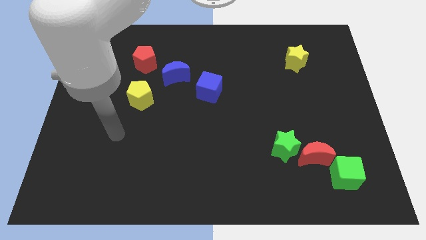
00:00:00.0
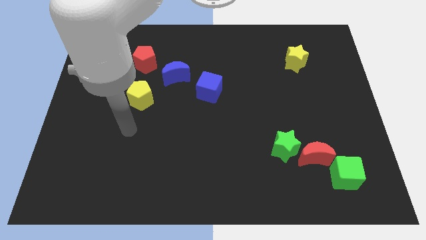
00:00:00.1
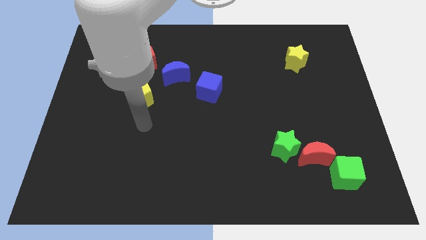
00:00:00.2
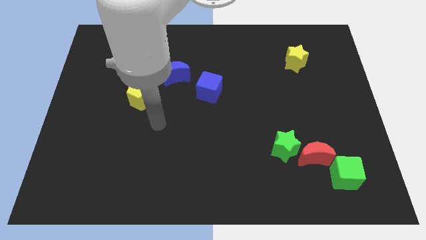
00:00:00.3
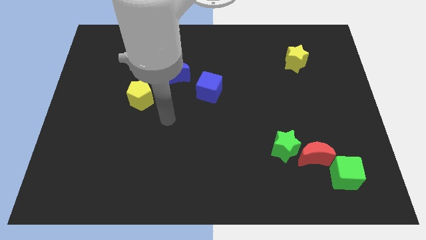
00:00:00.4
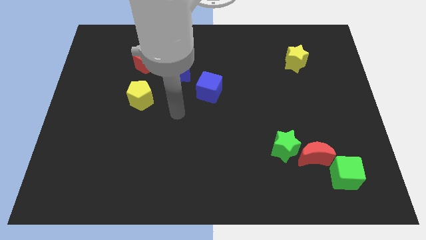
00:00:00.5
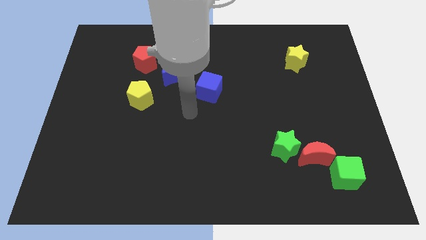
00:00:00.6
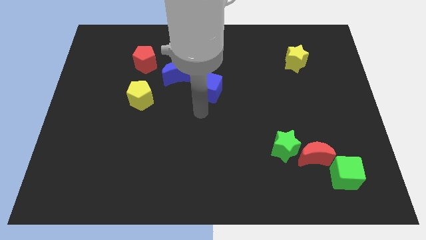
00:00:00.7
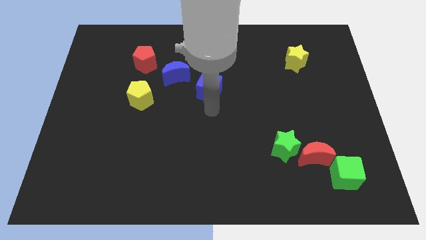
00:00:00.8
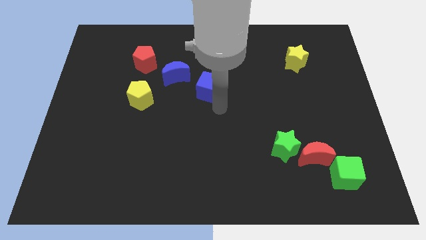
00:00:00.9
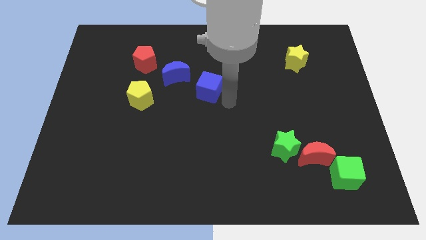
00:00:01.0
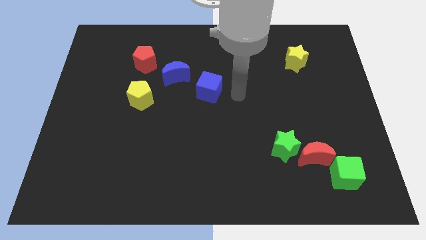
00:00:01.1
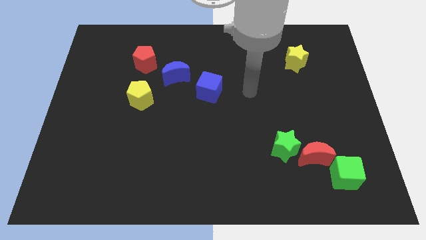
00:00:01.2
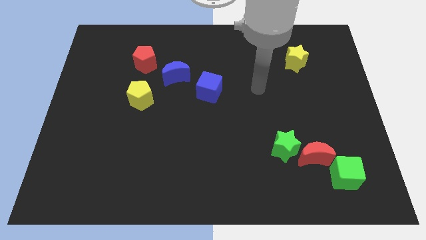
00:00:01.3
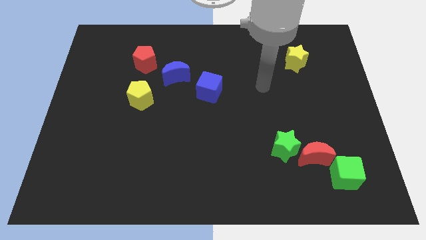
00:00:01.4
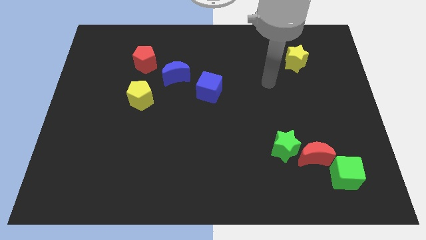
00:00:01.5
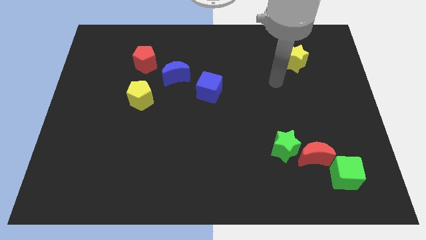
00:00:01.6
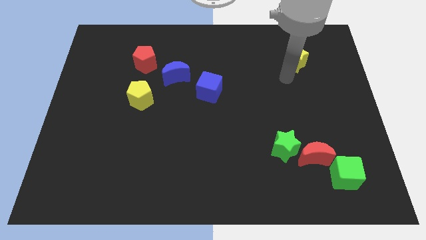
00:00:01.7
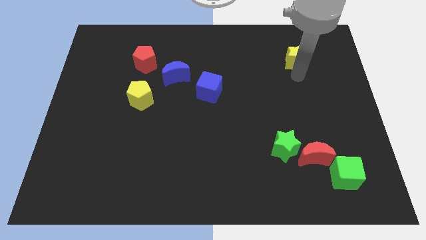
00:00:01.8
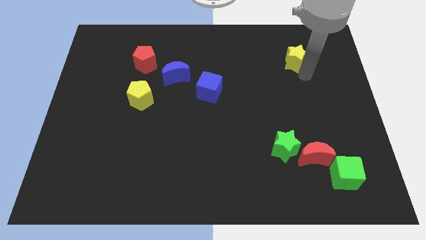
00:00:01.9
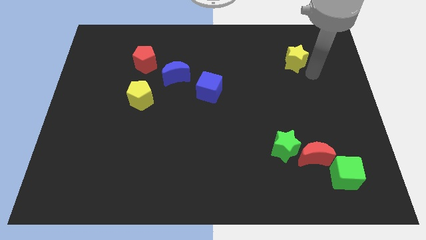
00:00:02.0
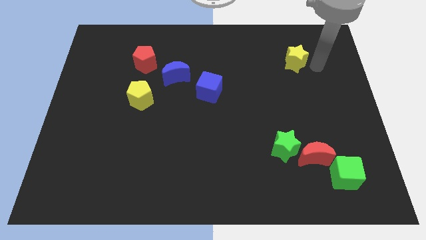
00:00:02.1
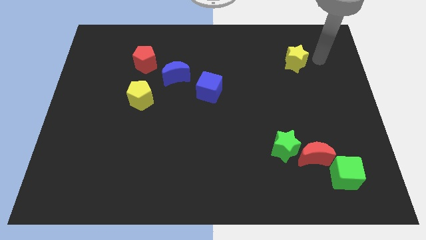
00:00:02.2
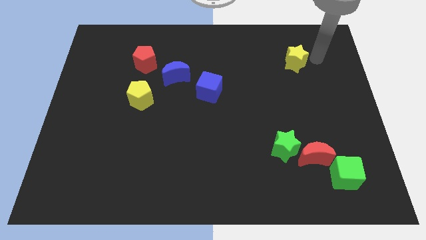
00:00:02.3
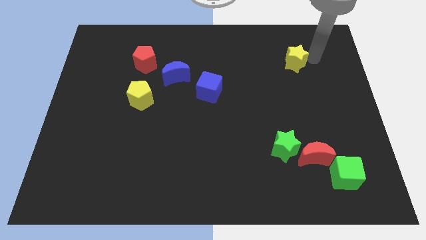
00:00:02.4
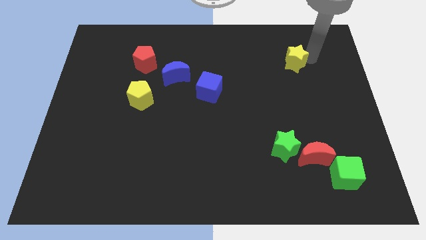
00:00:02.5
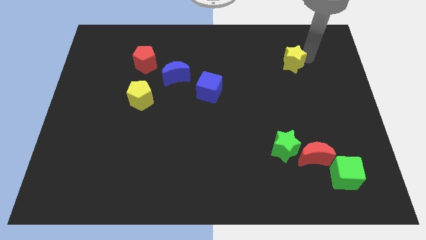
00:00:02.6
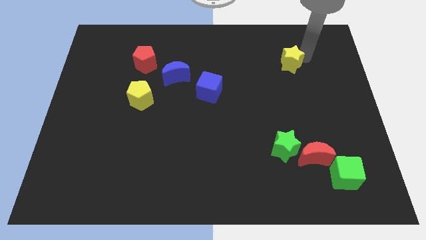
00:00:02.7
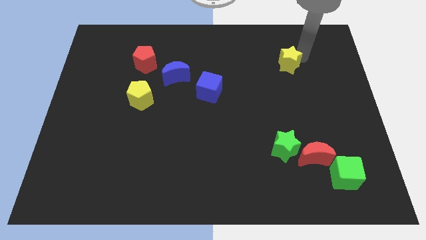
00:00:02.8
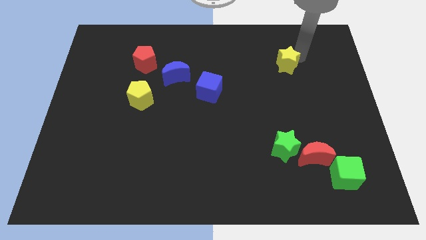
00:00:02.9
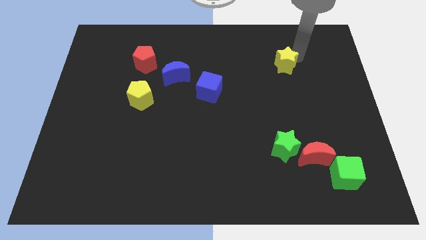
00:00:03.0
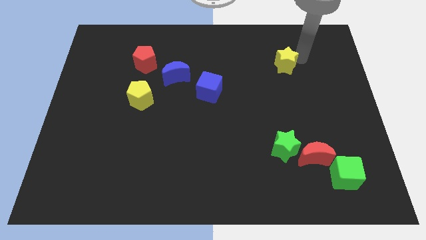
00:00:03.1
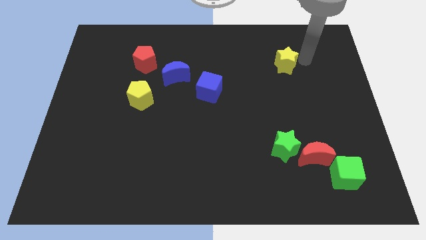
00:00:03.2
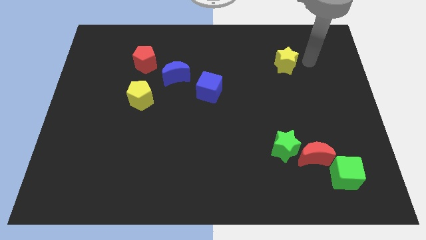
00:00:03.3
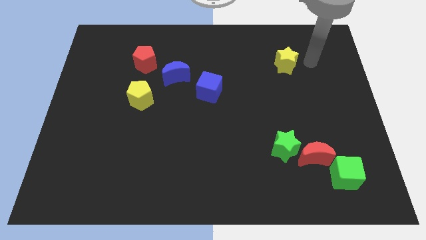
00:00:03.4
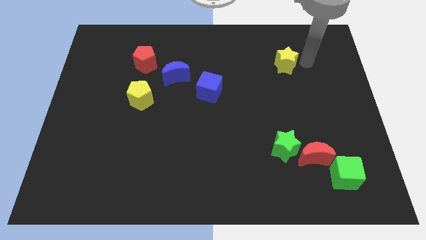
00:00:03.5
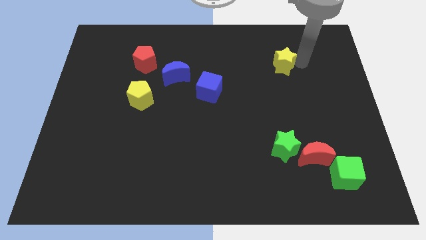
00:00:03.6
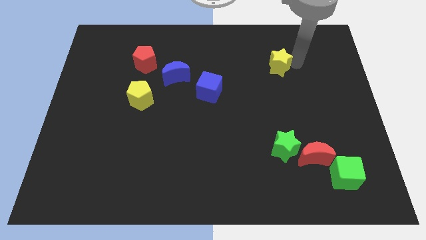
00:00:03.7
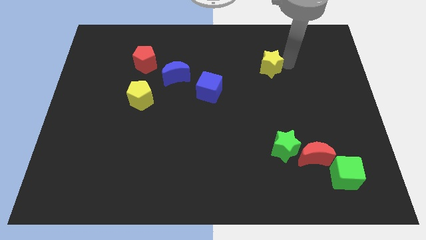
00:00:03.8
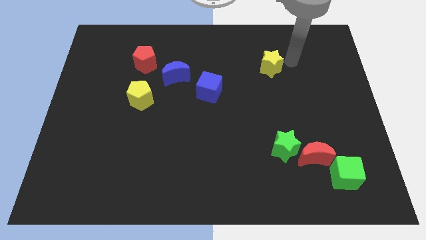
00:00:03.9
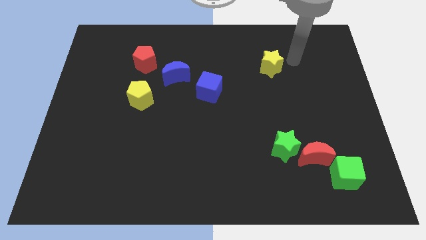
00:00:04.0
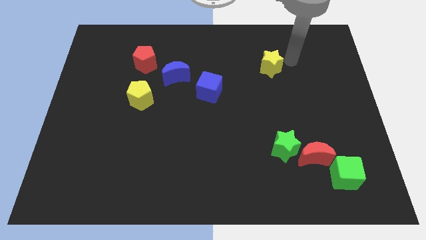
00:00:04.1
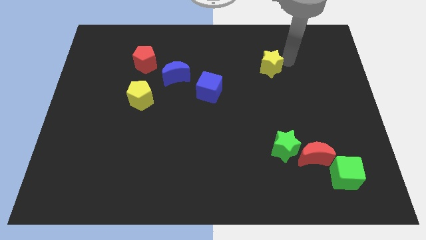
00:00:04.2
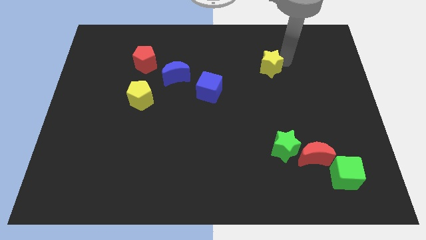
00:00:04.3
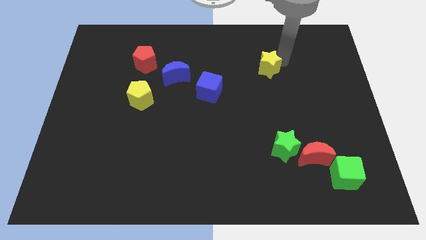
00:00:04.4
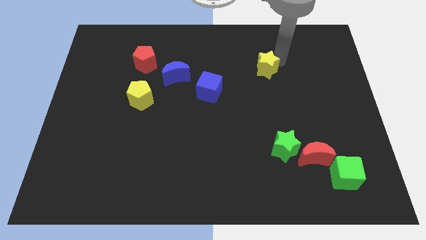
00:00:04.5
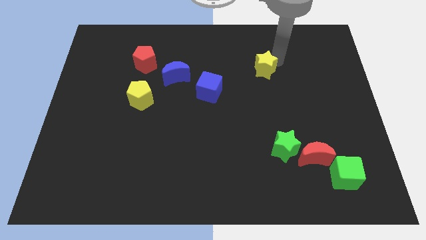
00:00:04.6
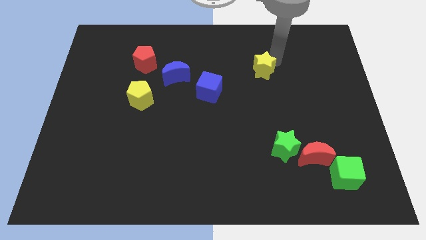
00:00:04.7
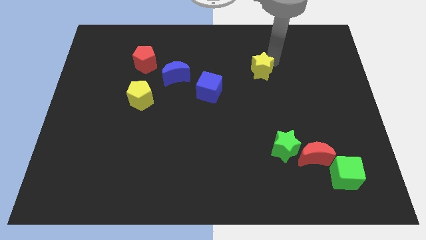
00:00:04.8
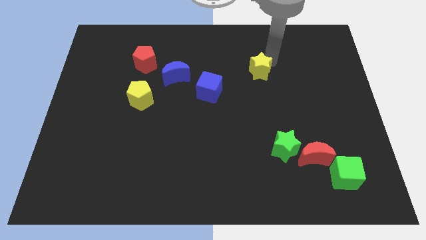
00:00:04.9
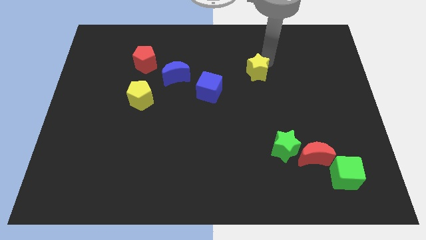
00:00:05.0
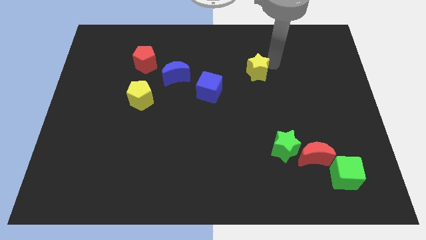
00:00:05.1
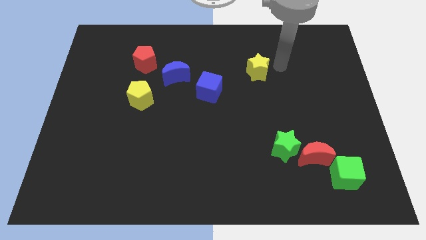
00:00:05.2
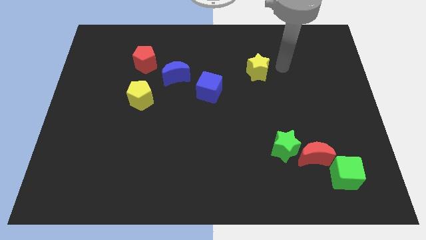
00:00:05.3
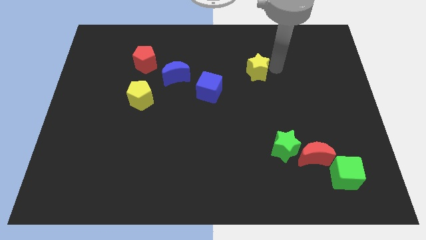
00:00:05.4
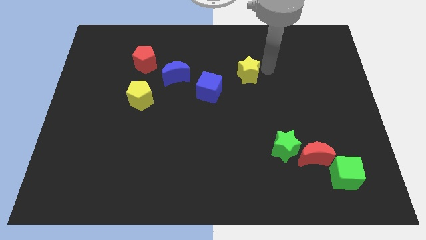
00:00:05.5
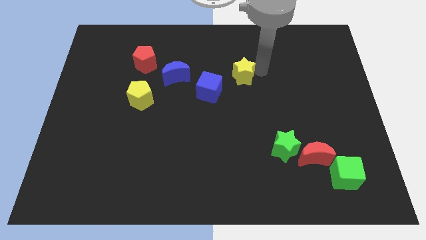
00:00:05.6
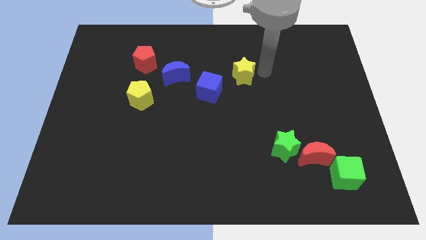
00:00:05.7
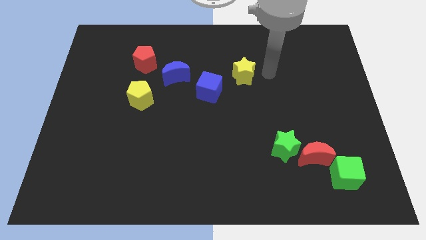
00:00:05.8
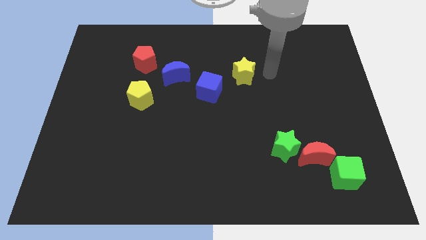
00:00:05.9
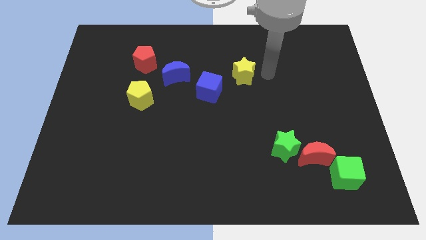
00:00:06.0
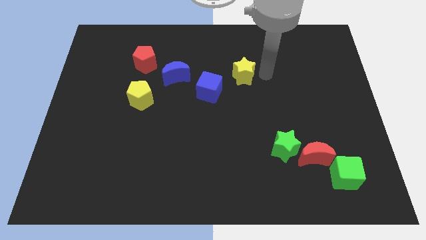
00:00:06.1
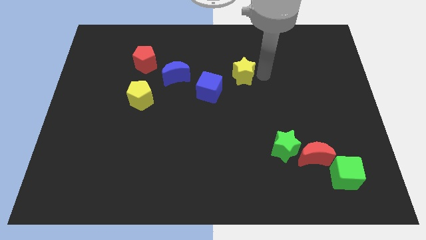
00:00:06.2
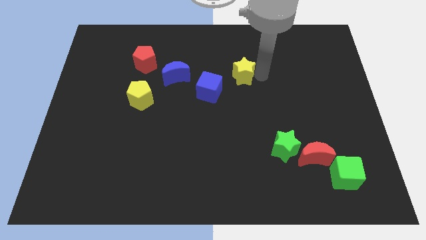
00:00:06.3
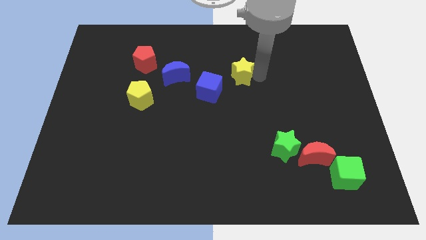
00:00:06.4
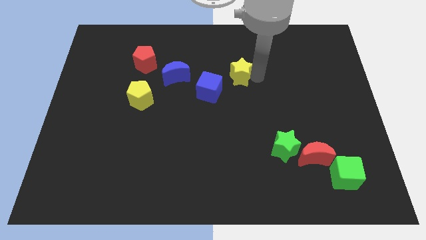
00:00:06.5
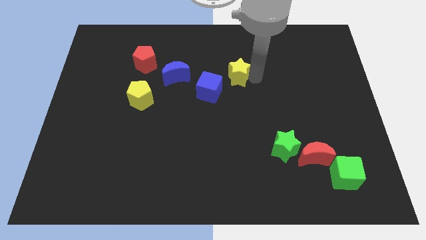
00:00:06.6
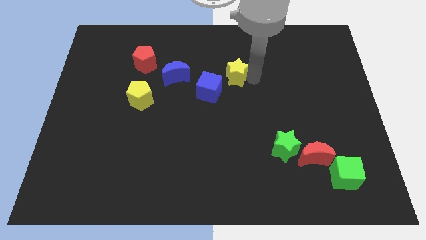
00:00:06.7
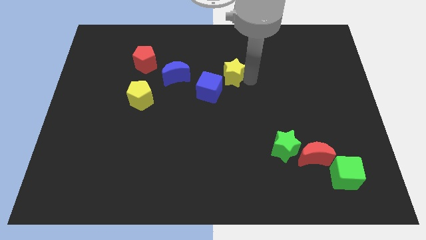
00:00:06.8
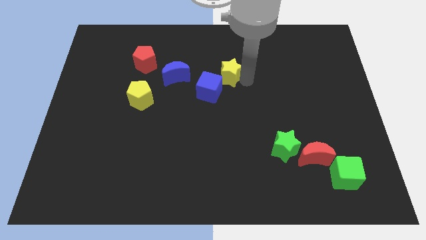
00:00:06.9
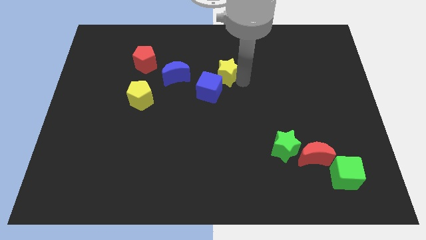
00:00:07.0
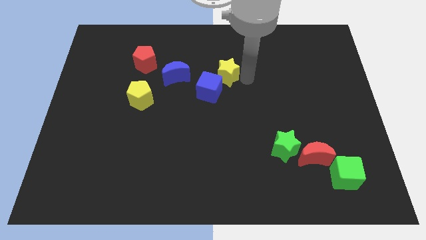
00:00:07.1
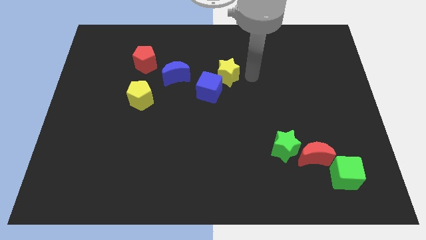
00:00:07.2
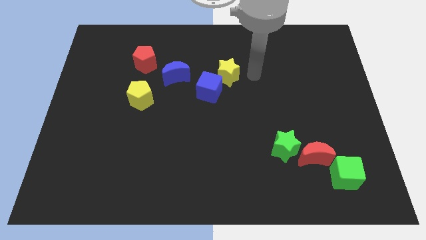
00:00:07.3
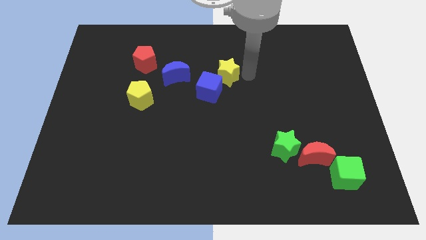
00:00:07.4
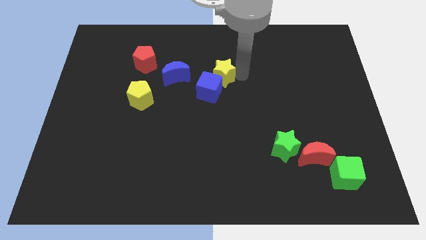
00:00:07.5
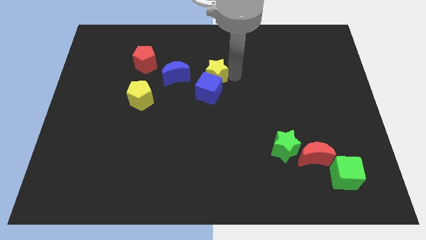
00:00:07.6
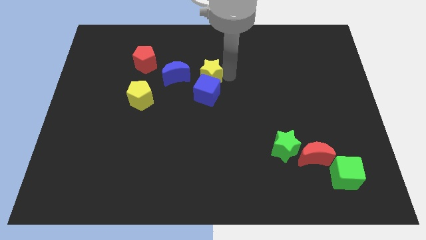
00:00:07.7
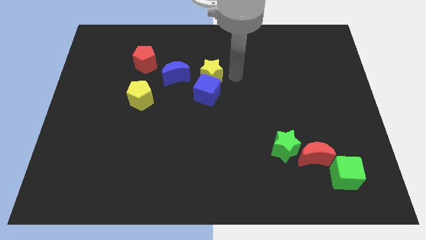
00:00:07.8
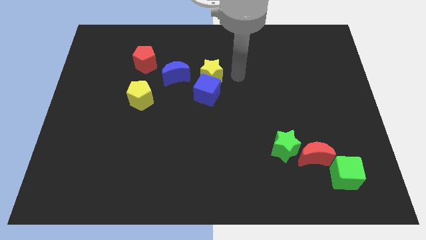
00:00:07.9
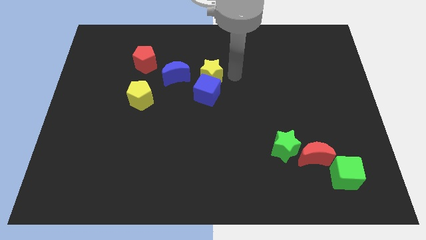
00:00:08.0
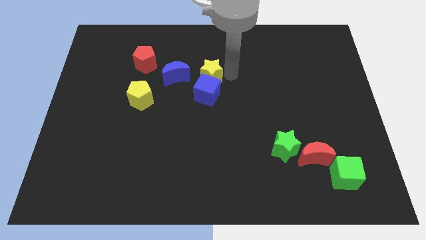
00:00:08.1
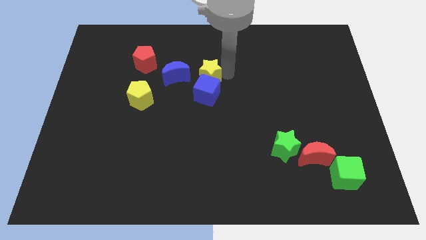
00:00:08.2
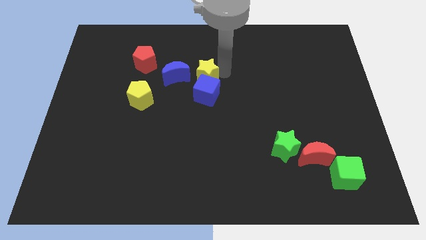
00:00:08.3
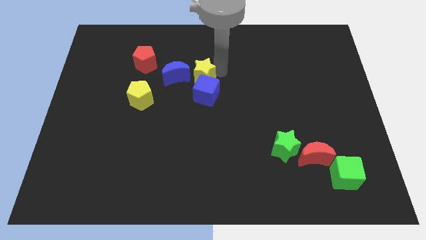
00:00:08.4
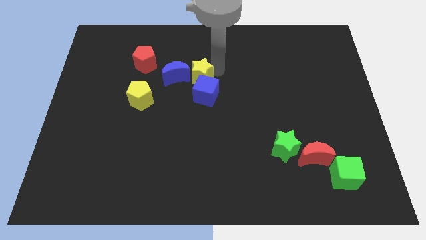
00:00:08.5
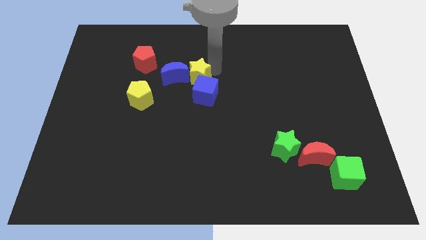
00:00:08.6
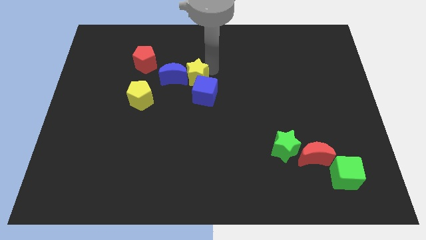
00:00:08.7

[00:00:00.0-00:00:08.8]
push the yellow star next to the blue moon
